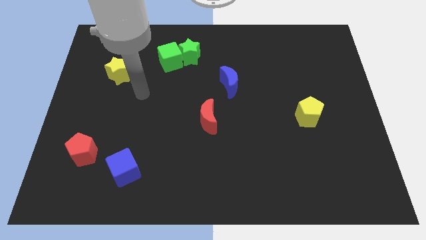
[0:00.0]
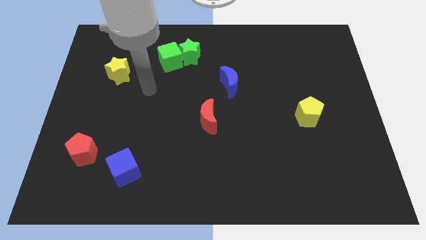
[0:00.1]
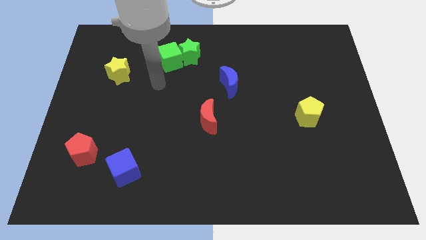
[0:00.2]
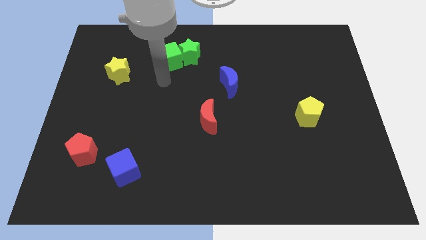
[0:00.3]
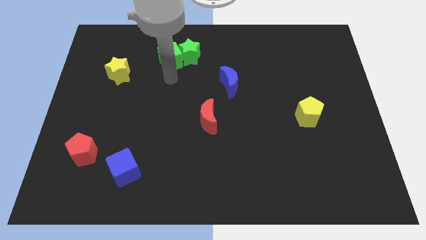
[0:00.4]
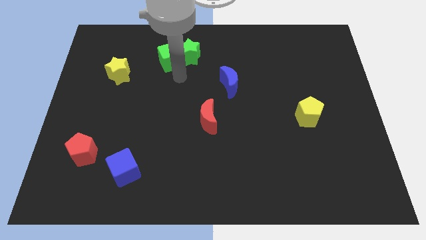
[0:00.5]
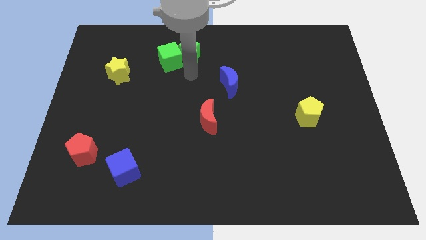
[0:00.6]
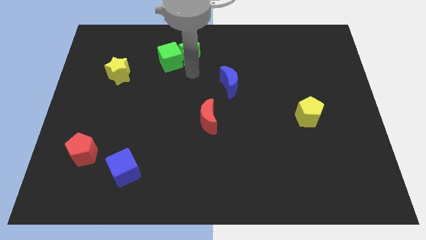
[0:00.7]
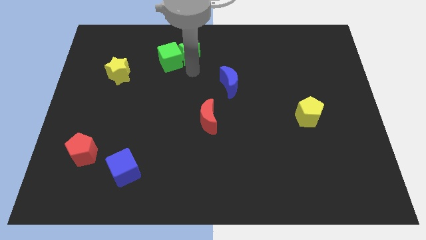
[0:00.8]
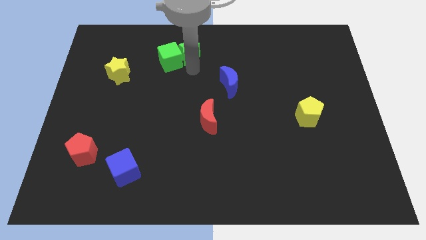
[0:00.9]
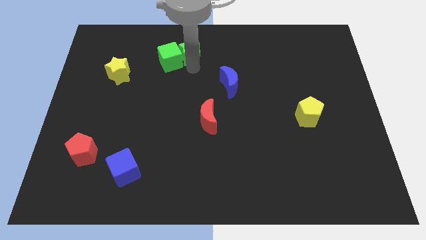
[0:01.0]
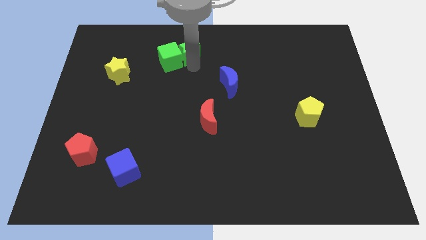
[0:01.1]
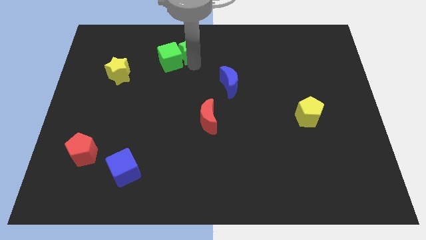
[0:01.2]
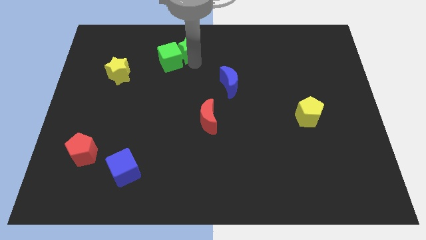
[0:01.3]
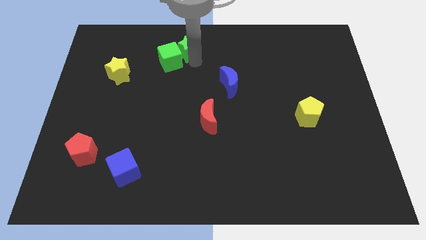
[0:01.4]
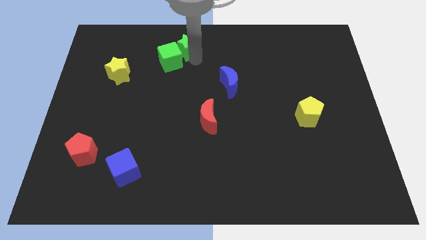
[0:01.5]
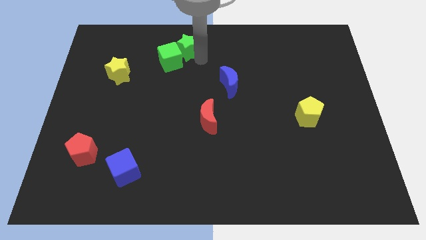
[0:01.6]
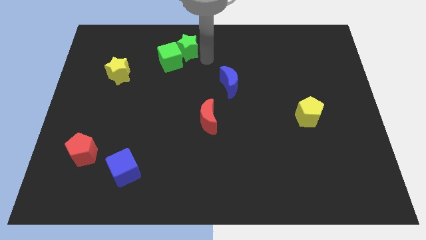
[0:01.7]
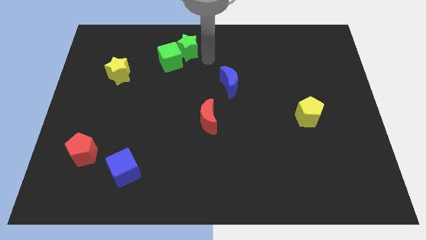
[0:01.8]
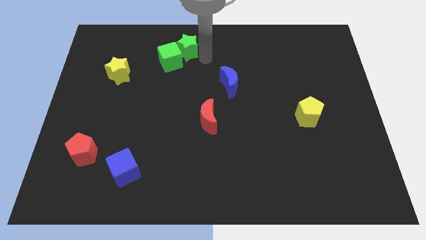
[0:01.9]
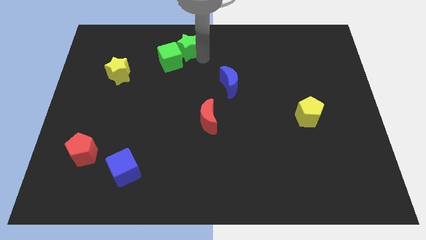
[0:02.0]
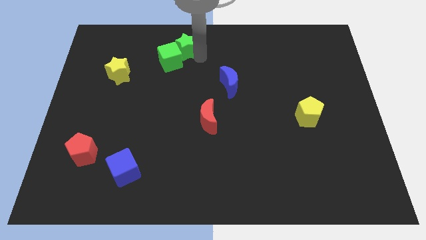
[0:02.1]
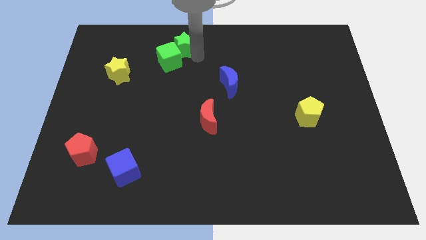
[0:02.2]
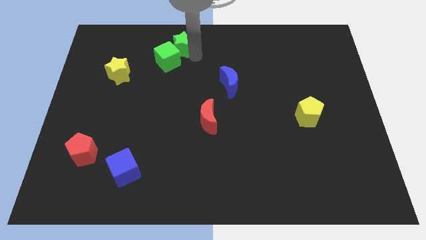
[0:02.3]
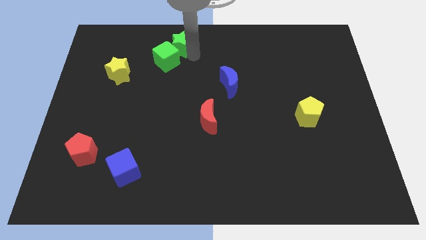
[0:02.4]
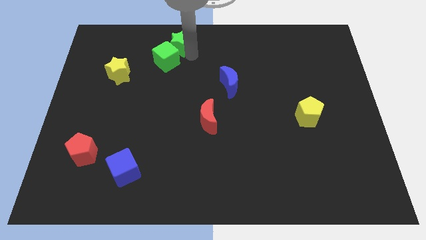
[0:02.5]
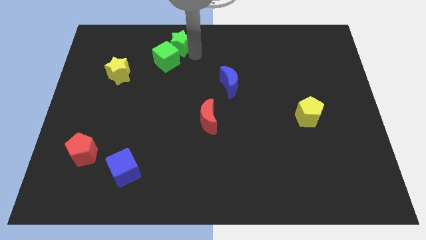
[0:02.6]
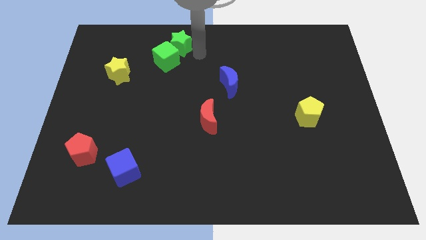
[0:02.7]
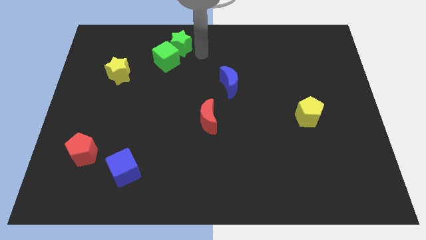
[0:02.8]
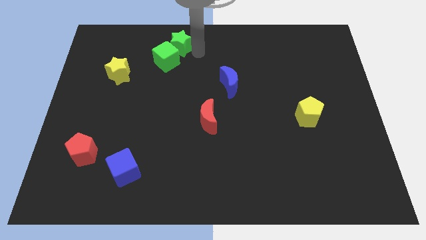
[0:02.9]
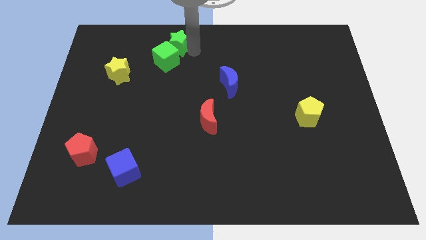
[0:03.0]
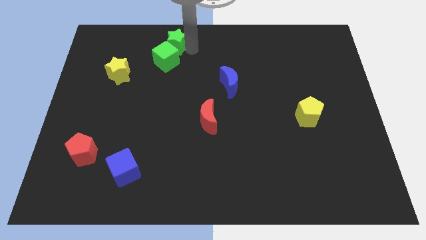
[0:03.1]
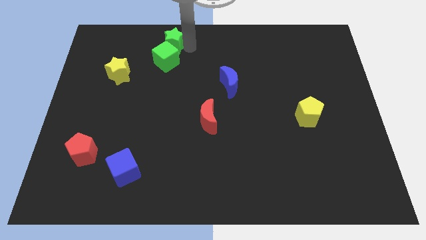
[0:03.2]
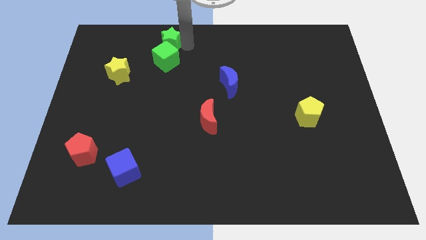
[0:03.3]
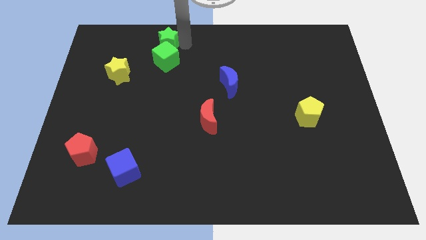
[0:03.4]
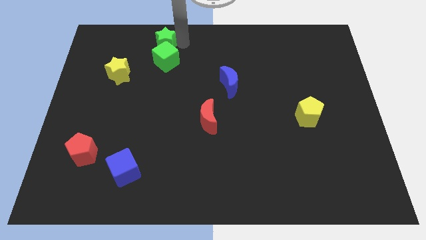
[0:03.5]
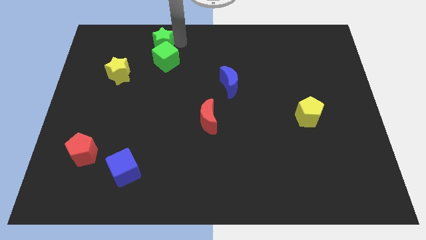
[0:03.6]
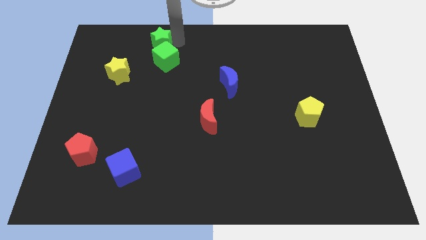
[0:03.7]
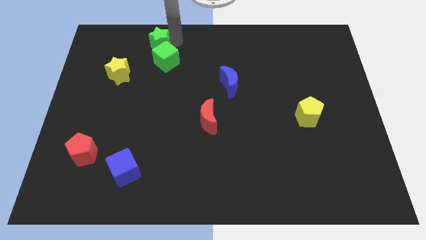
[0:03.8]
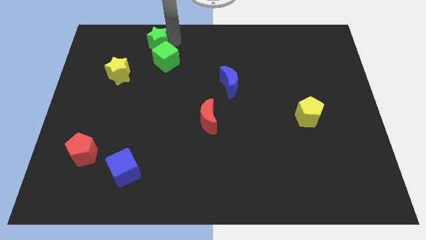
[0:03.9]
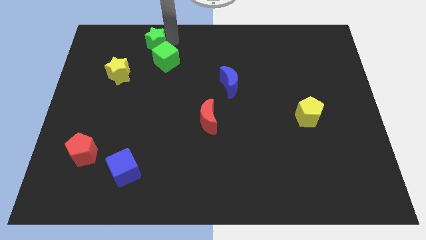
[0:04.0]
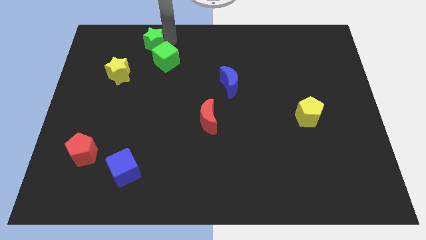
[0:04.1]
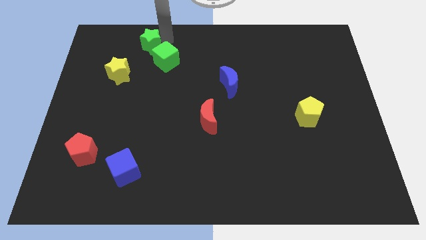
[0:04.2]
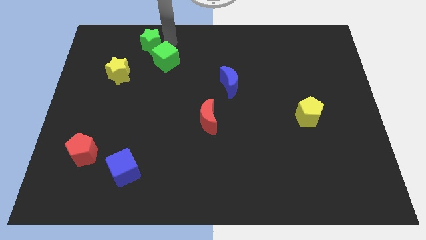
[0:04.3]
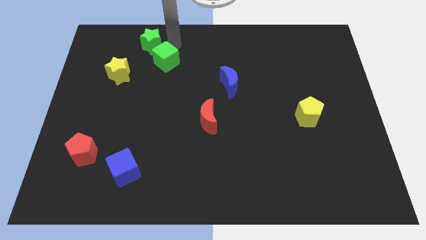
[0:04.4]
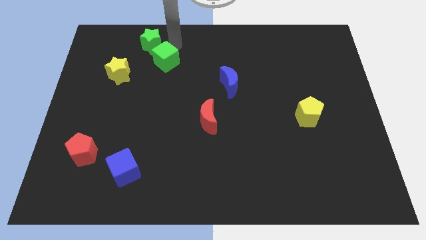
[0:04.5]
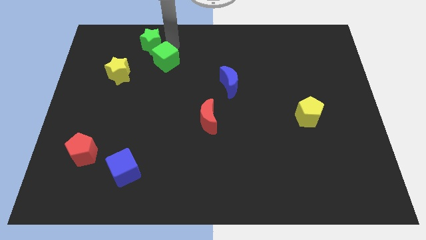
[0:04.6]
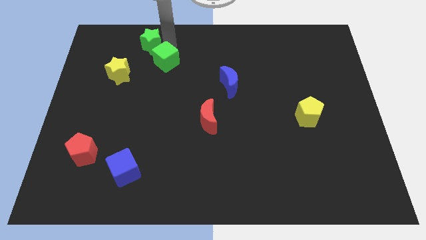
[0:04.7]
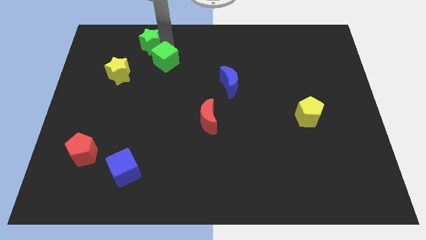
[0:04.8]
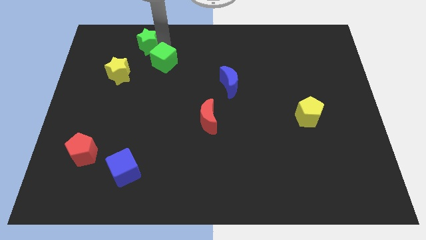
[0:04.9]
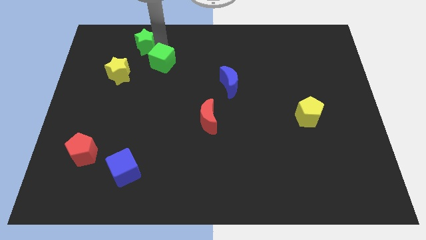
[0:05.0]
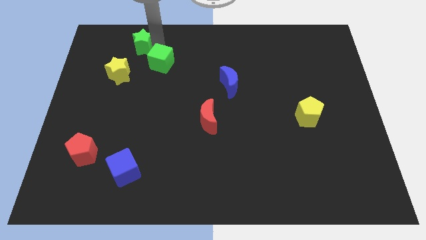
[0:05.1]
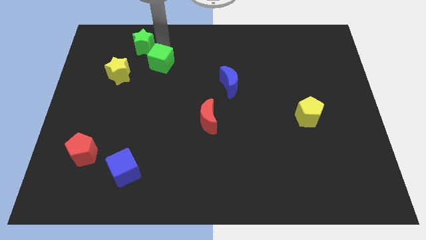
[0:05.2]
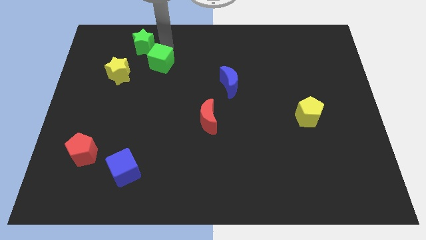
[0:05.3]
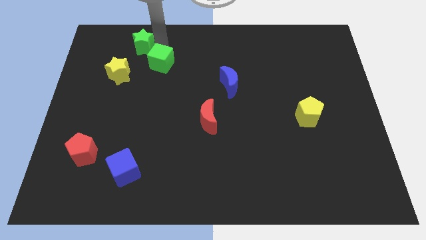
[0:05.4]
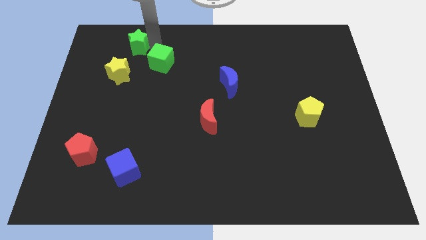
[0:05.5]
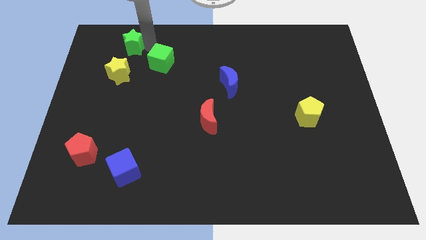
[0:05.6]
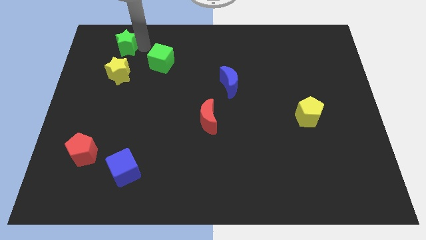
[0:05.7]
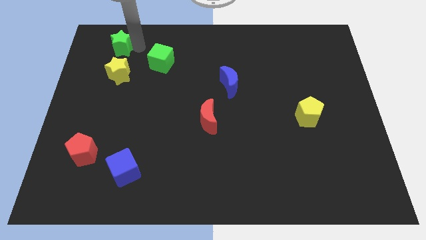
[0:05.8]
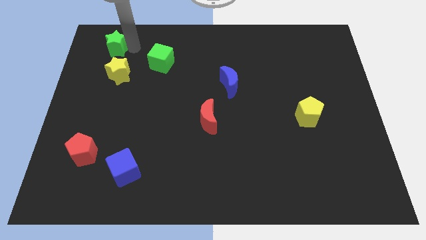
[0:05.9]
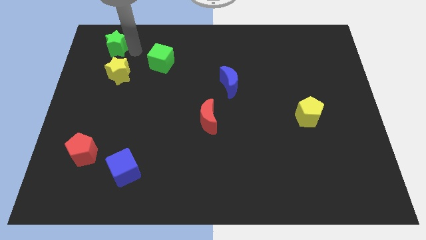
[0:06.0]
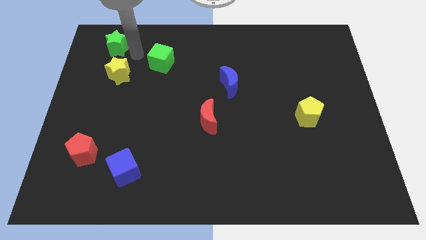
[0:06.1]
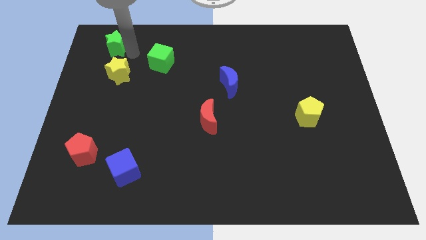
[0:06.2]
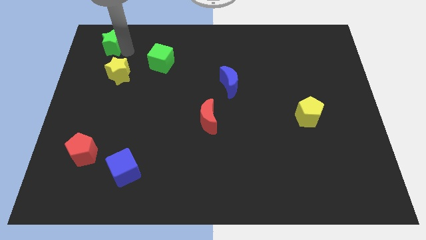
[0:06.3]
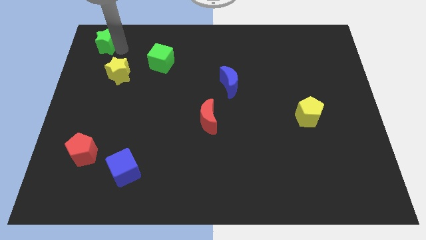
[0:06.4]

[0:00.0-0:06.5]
move the green star to the top left corner

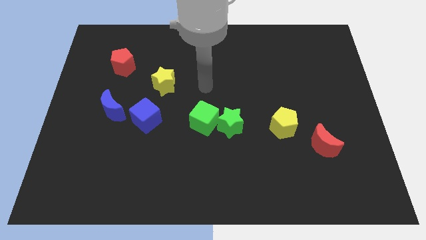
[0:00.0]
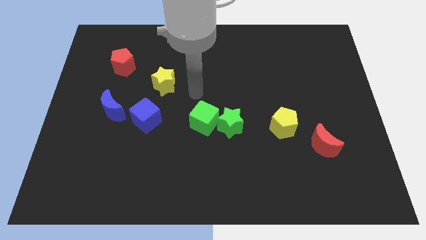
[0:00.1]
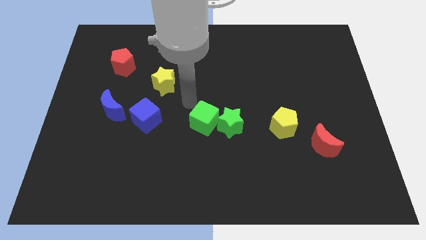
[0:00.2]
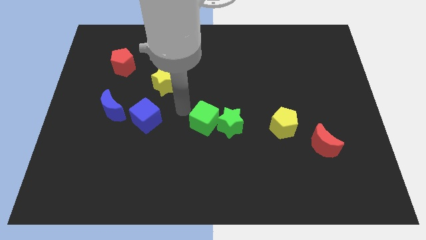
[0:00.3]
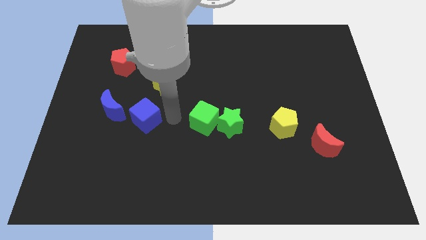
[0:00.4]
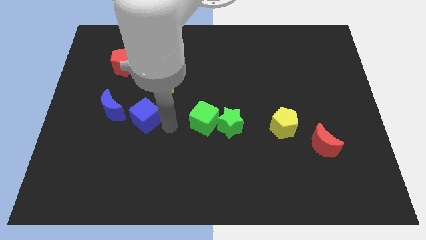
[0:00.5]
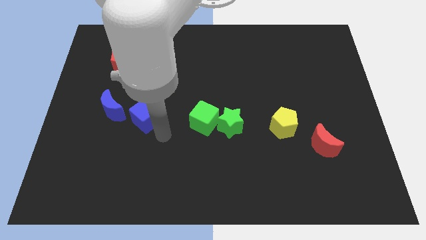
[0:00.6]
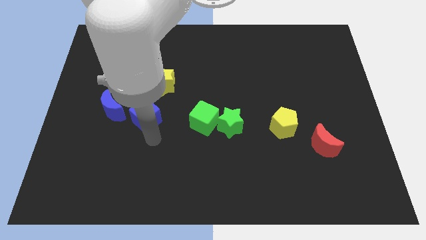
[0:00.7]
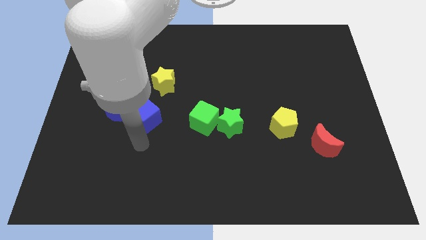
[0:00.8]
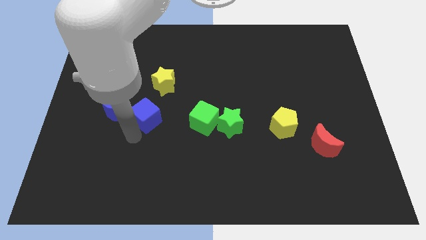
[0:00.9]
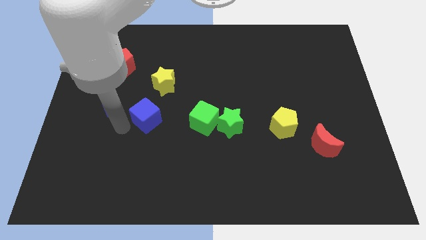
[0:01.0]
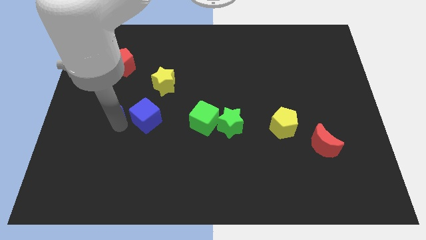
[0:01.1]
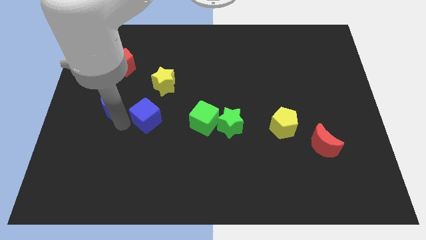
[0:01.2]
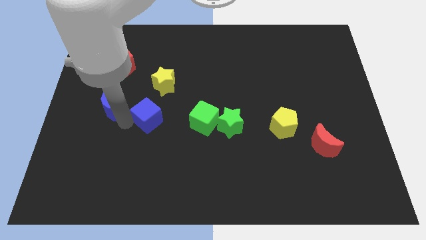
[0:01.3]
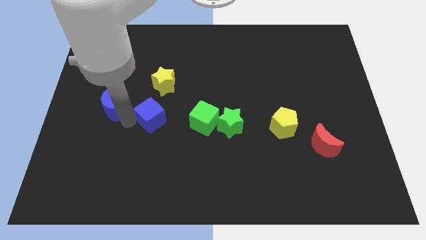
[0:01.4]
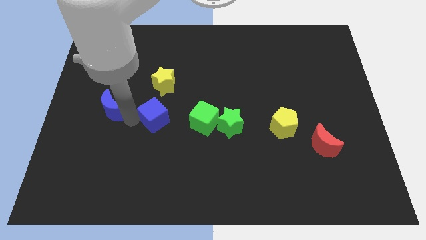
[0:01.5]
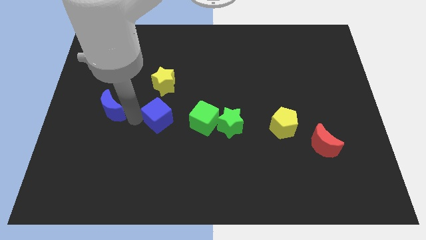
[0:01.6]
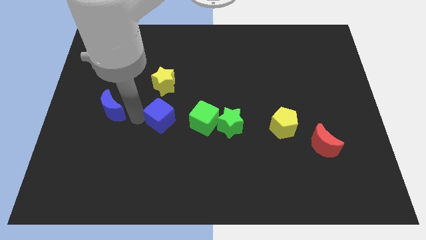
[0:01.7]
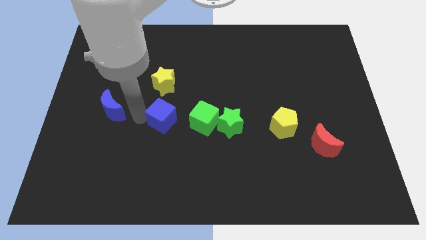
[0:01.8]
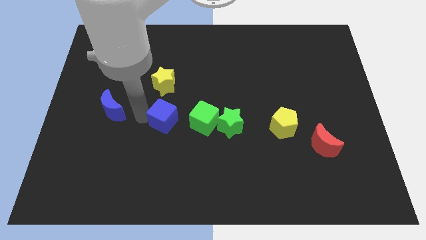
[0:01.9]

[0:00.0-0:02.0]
move the blue cube to the center
